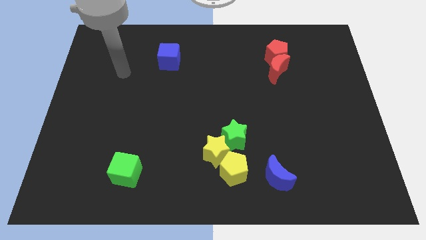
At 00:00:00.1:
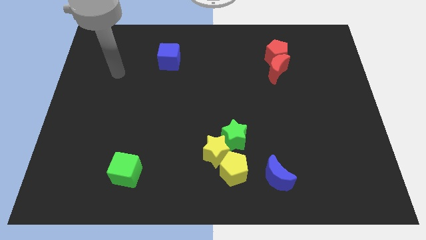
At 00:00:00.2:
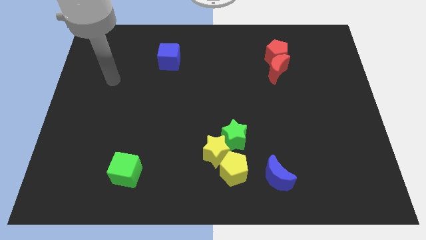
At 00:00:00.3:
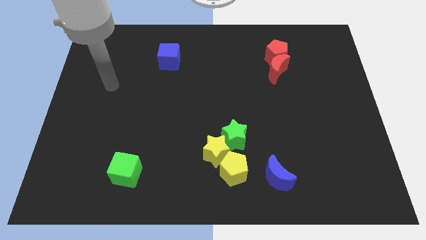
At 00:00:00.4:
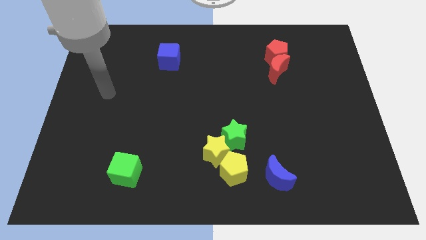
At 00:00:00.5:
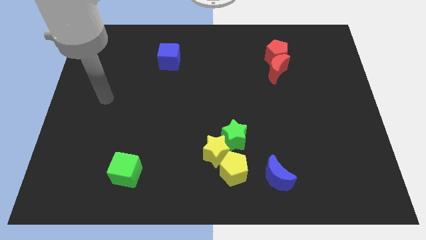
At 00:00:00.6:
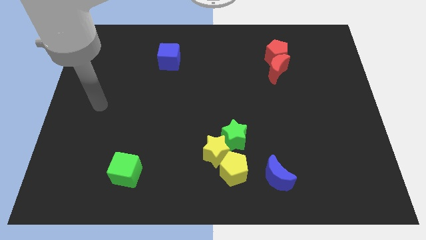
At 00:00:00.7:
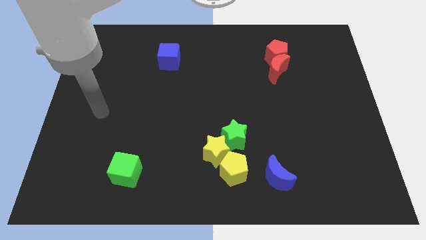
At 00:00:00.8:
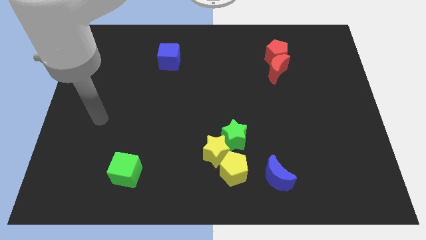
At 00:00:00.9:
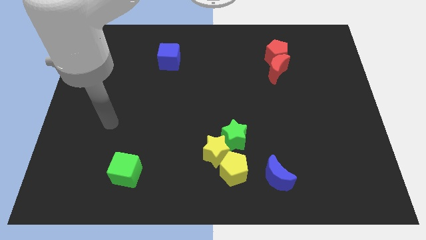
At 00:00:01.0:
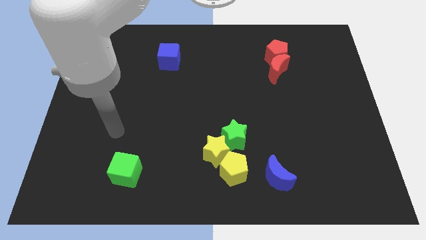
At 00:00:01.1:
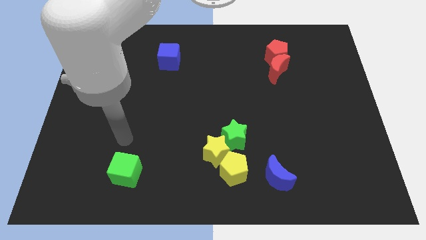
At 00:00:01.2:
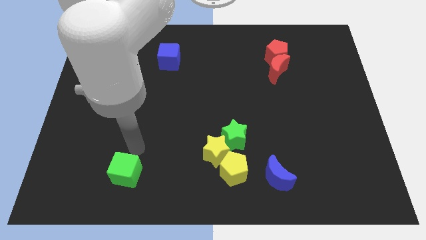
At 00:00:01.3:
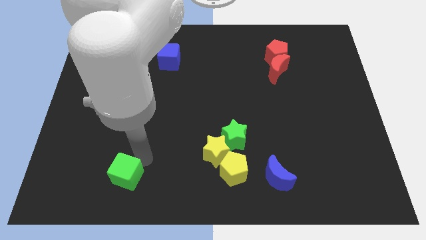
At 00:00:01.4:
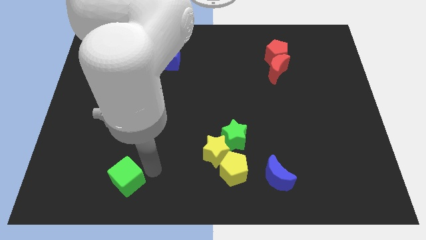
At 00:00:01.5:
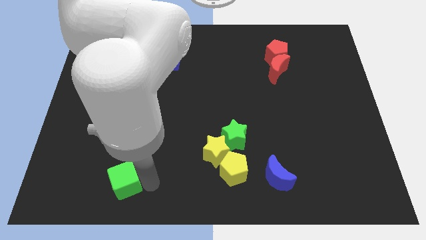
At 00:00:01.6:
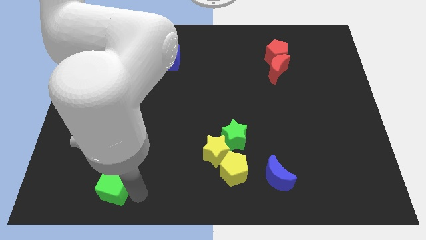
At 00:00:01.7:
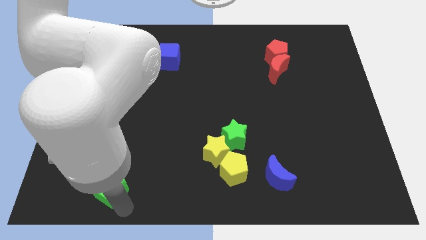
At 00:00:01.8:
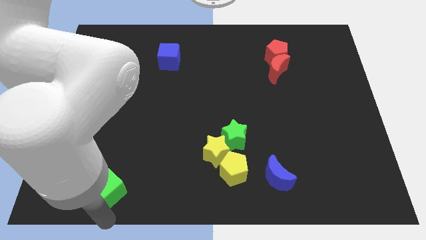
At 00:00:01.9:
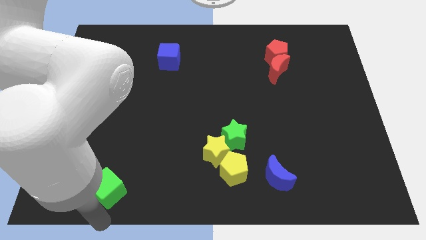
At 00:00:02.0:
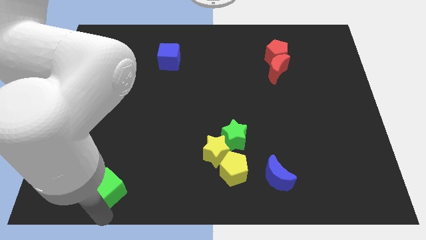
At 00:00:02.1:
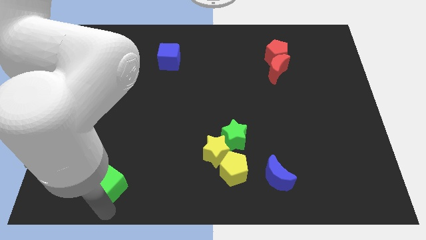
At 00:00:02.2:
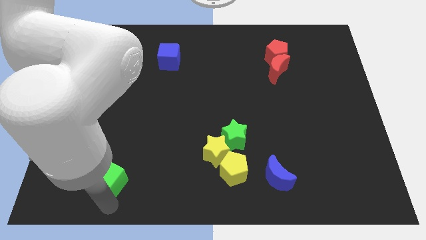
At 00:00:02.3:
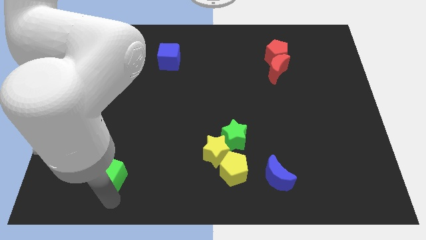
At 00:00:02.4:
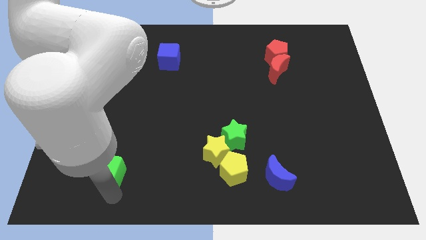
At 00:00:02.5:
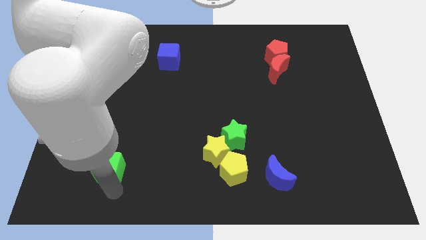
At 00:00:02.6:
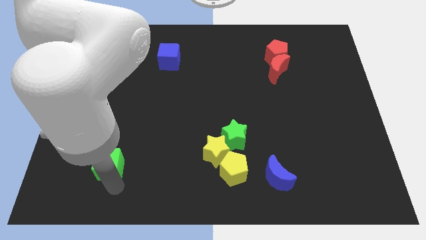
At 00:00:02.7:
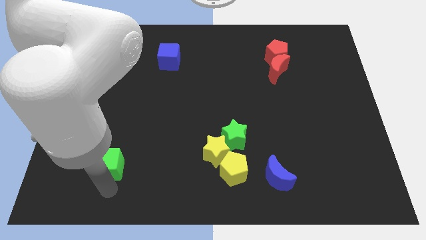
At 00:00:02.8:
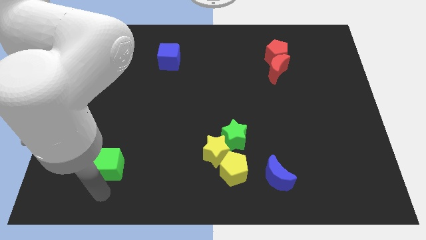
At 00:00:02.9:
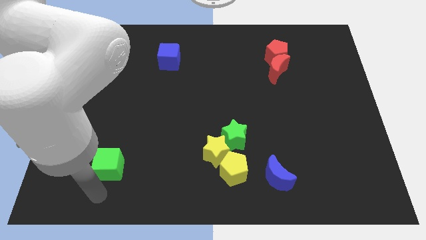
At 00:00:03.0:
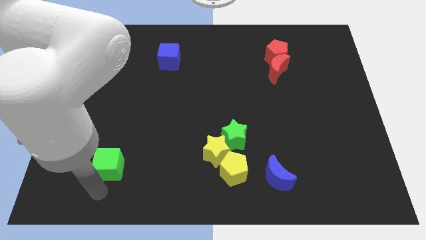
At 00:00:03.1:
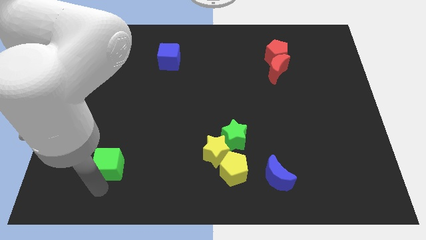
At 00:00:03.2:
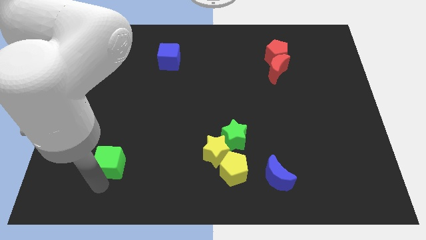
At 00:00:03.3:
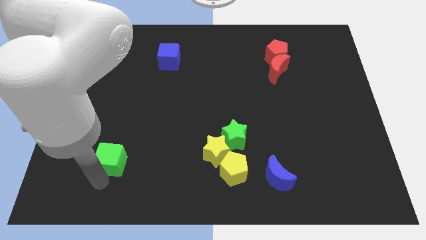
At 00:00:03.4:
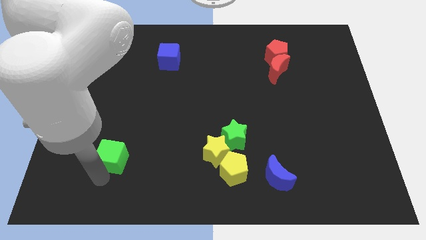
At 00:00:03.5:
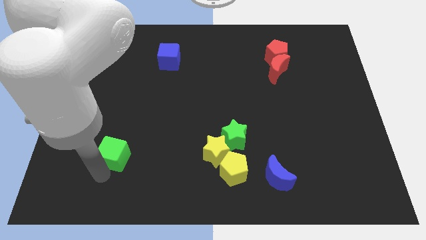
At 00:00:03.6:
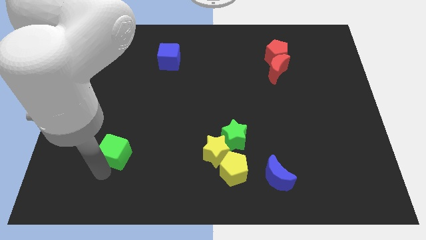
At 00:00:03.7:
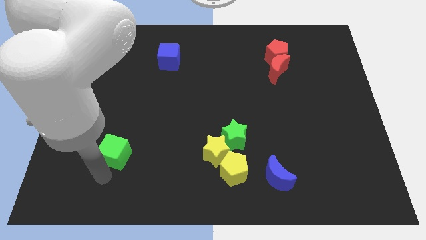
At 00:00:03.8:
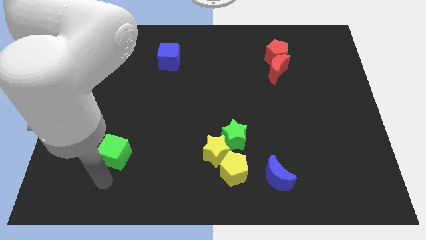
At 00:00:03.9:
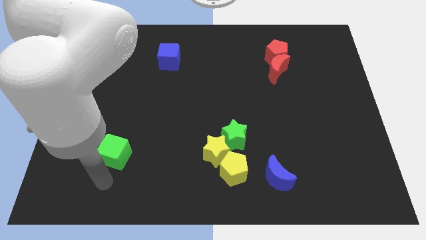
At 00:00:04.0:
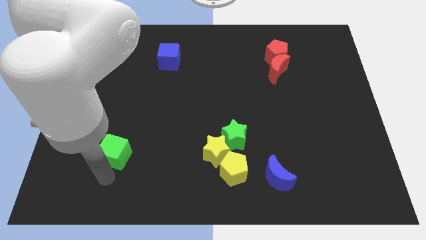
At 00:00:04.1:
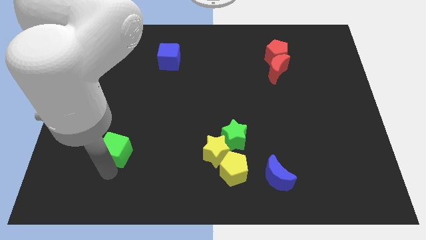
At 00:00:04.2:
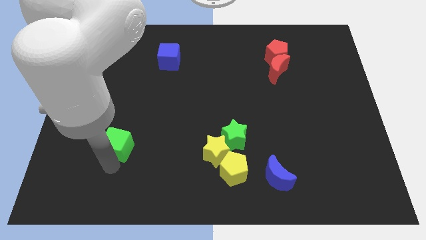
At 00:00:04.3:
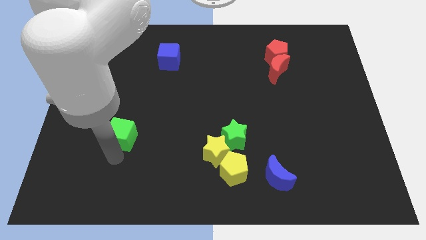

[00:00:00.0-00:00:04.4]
slide the green cube upwards slightly

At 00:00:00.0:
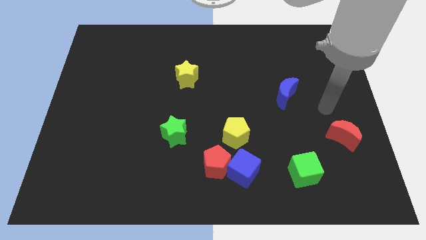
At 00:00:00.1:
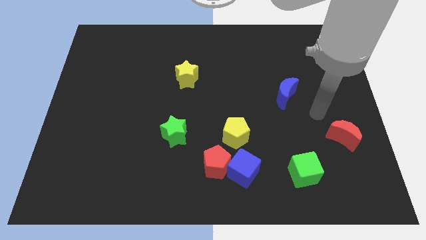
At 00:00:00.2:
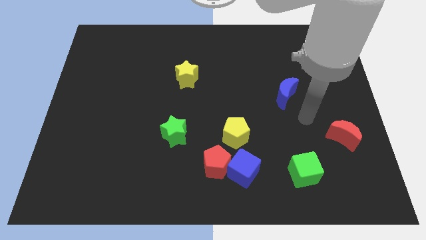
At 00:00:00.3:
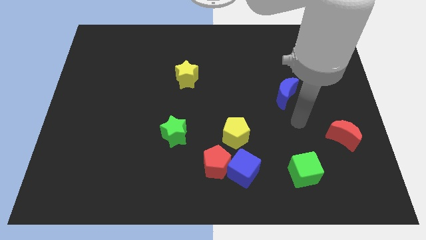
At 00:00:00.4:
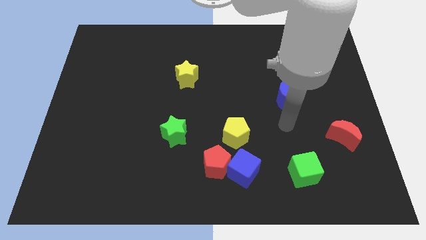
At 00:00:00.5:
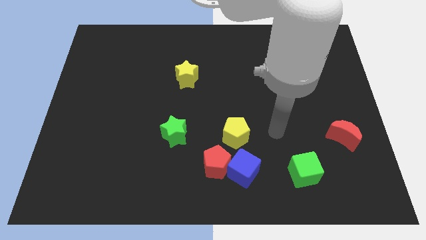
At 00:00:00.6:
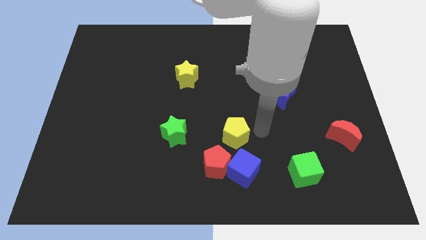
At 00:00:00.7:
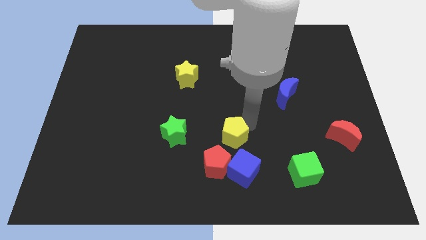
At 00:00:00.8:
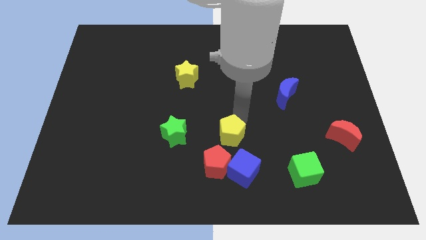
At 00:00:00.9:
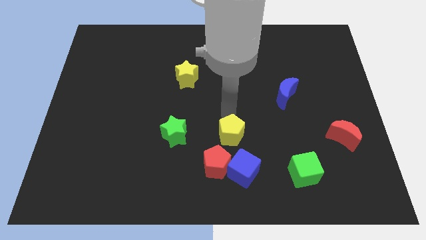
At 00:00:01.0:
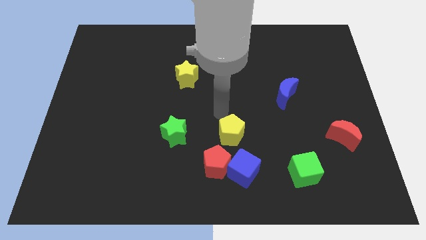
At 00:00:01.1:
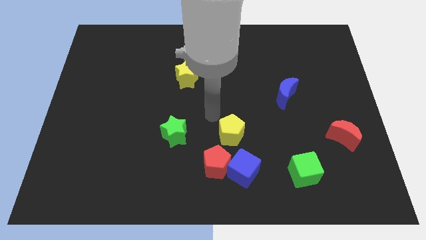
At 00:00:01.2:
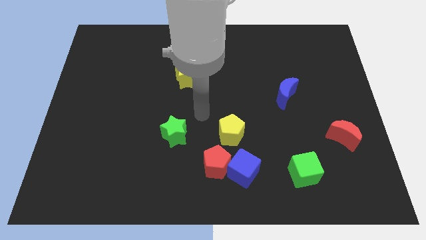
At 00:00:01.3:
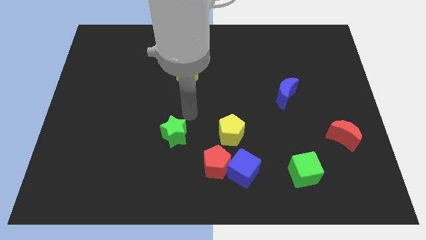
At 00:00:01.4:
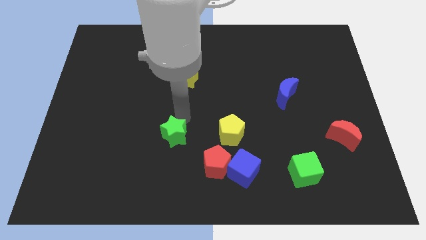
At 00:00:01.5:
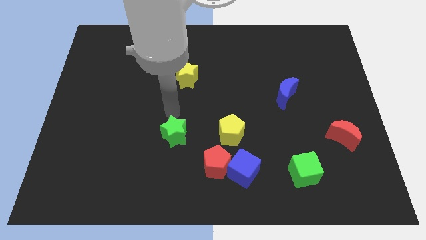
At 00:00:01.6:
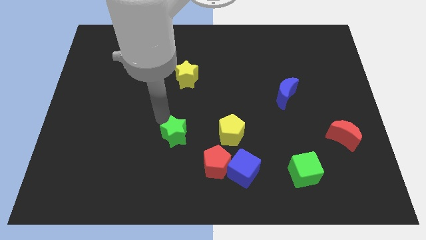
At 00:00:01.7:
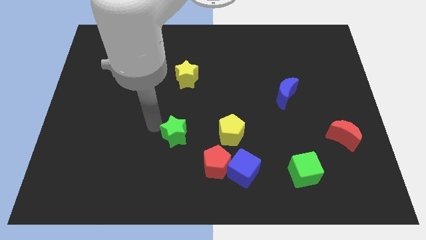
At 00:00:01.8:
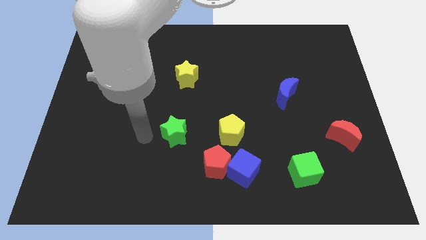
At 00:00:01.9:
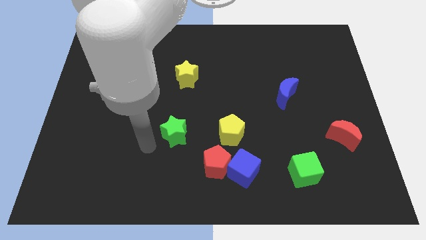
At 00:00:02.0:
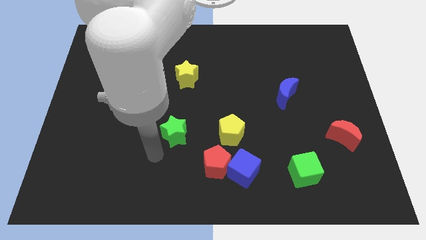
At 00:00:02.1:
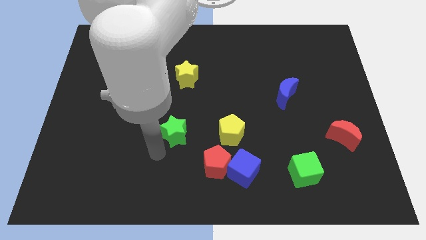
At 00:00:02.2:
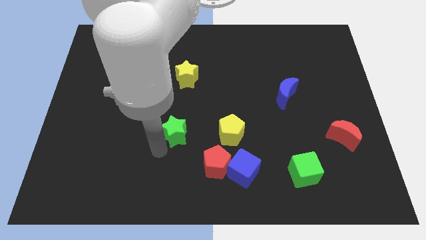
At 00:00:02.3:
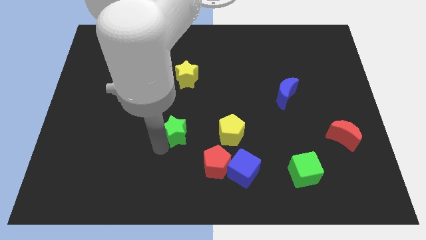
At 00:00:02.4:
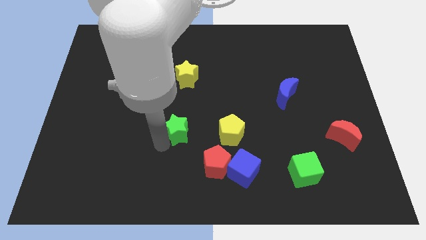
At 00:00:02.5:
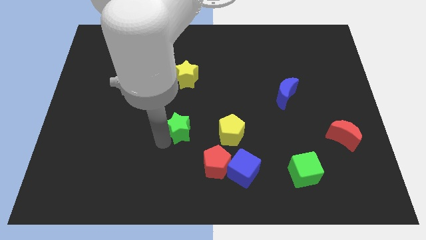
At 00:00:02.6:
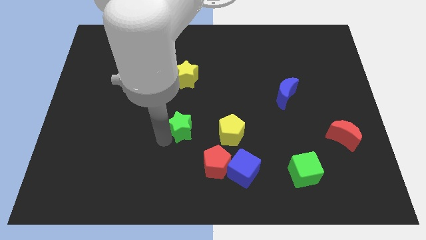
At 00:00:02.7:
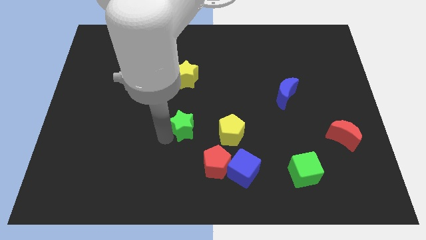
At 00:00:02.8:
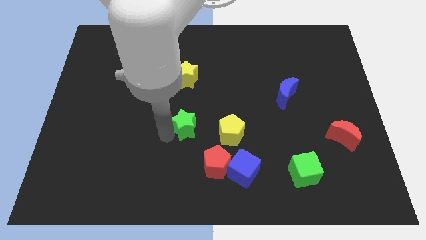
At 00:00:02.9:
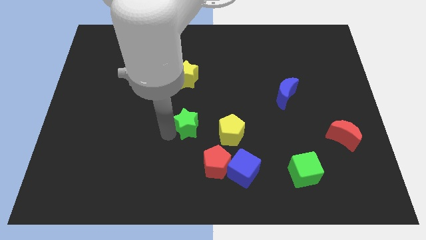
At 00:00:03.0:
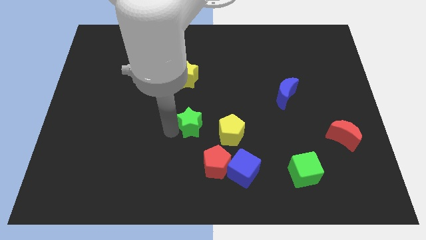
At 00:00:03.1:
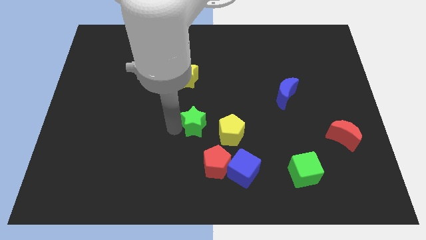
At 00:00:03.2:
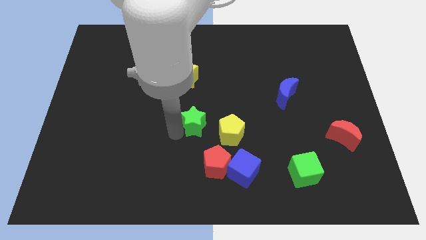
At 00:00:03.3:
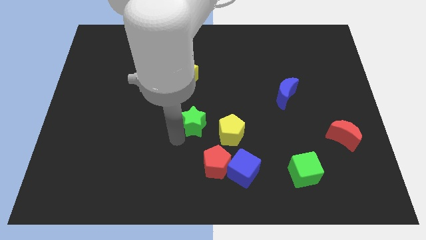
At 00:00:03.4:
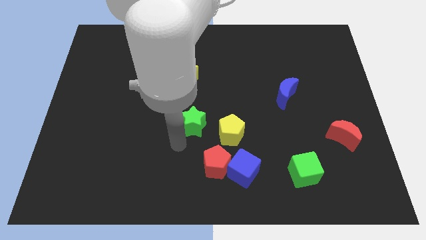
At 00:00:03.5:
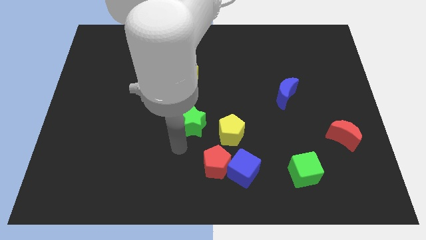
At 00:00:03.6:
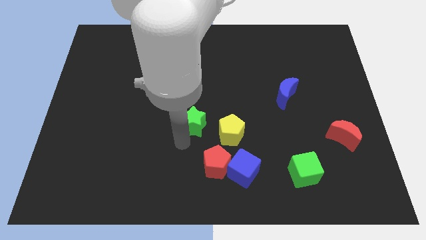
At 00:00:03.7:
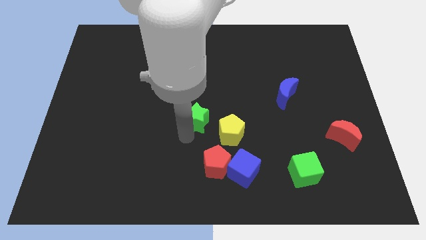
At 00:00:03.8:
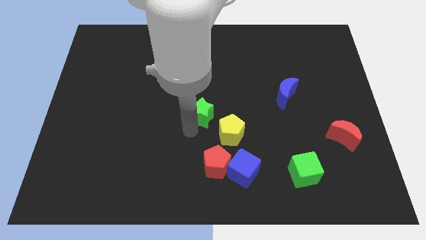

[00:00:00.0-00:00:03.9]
slightly push the green star upwards and right diagonally
